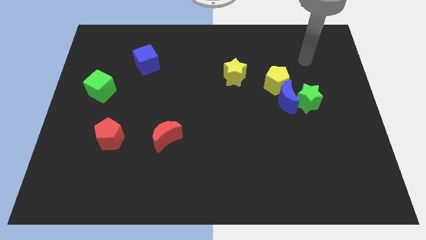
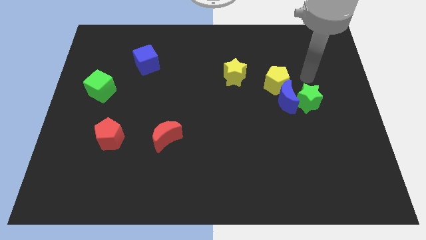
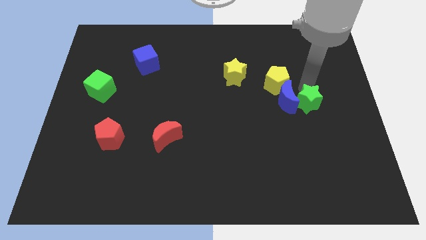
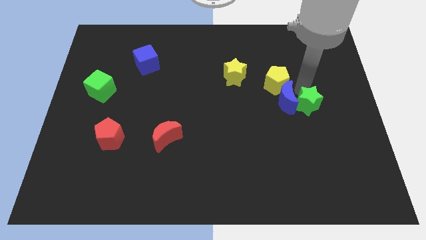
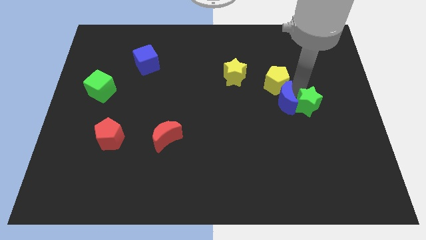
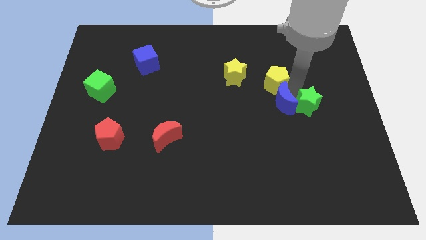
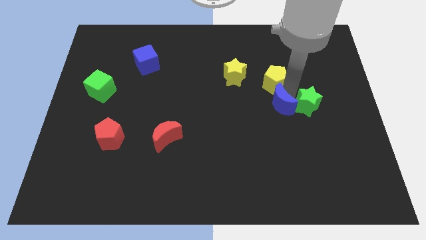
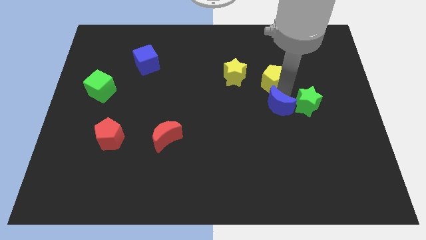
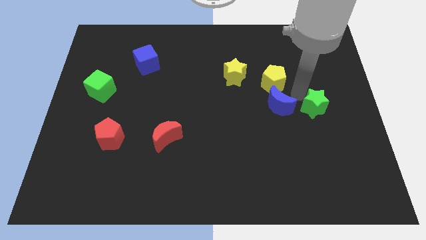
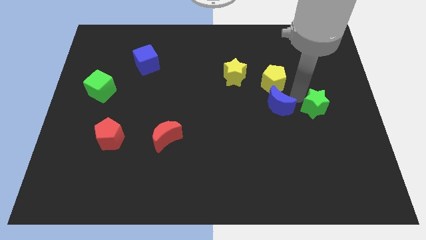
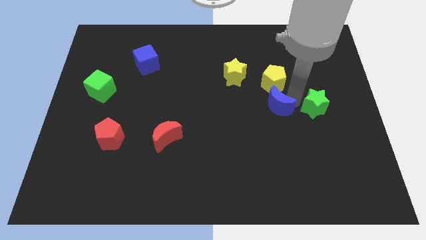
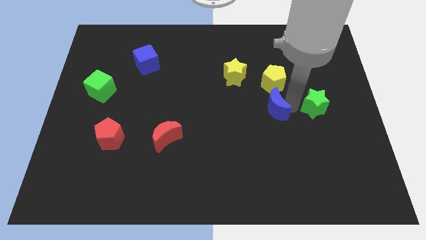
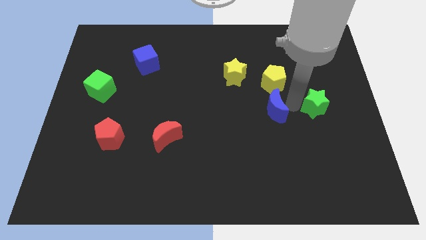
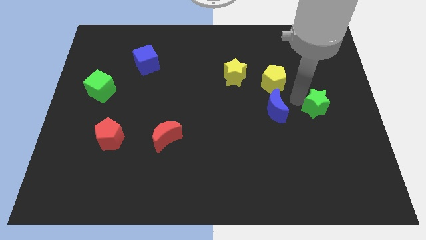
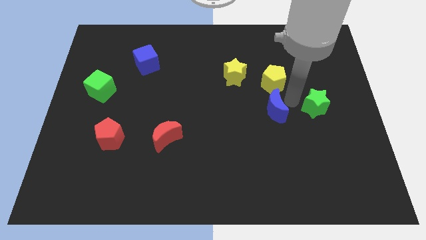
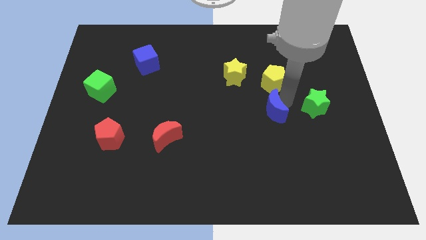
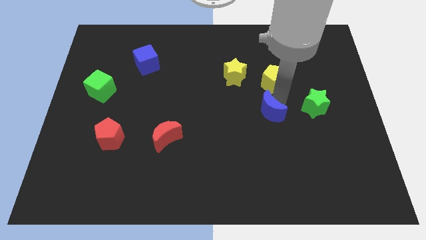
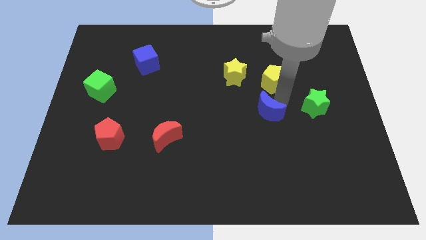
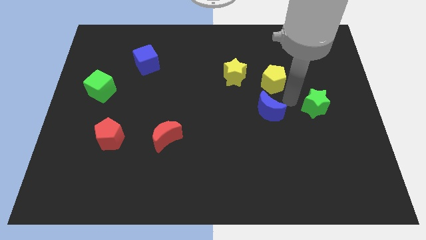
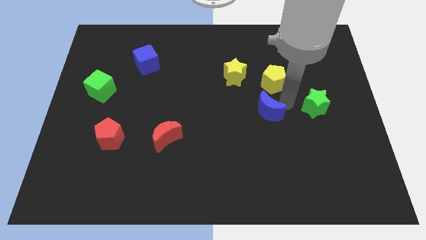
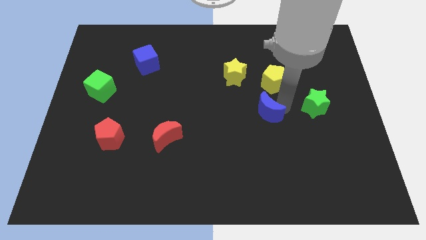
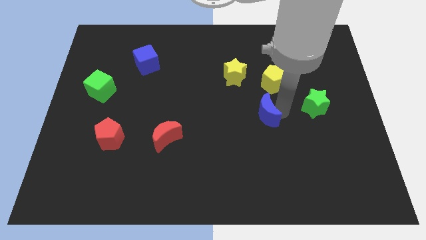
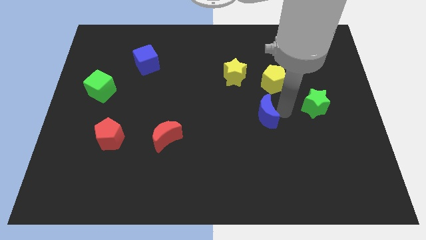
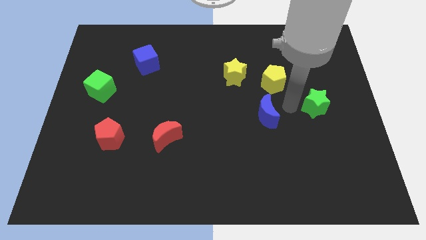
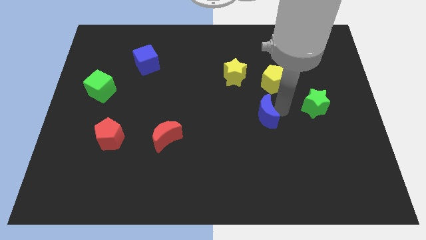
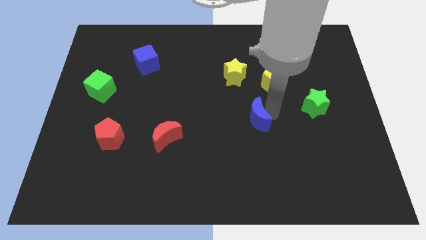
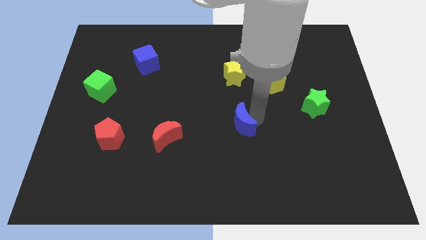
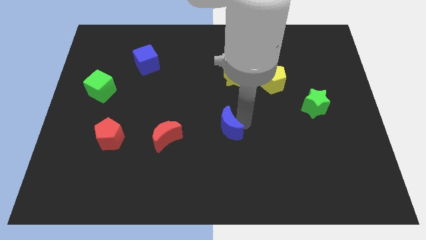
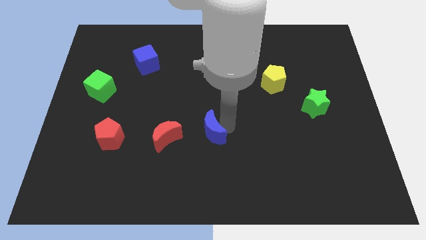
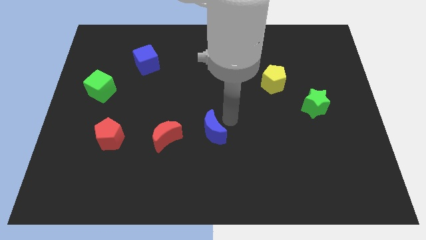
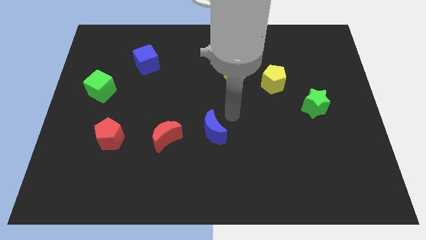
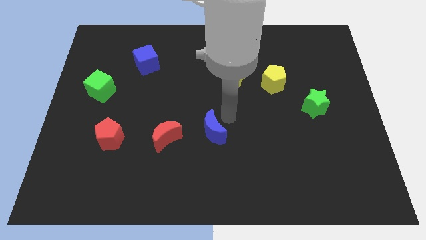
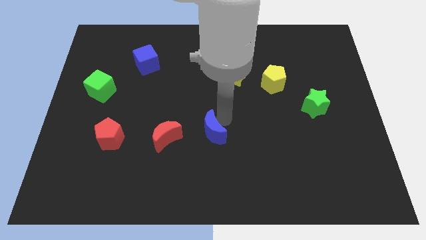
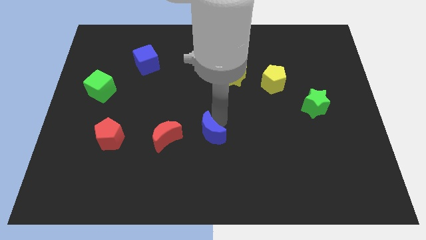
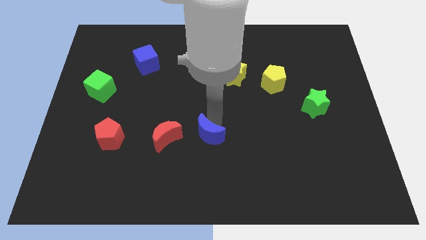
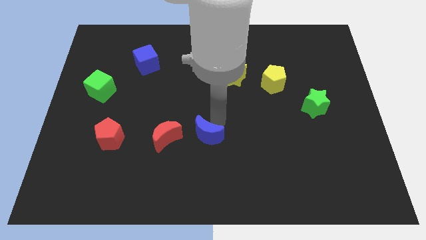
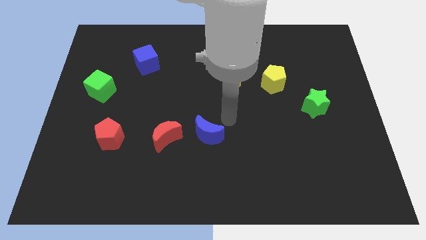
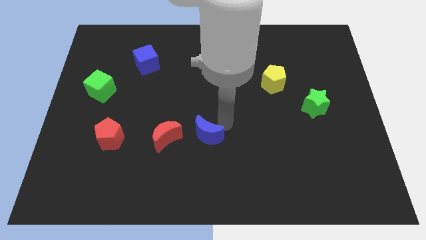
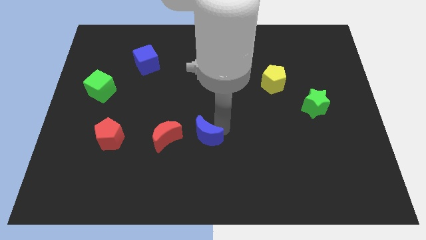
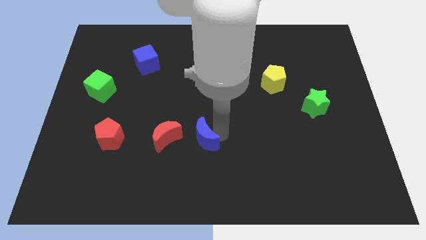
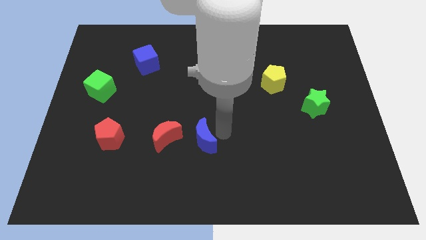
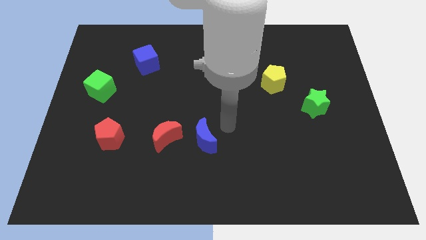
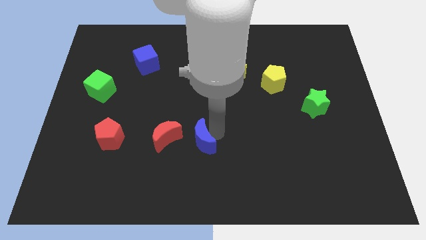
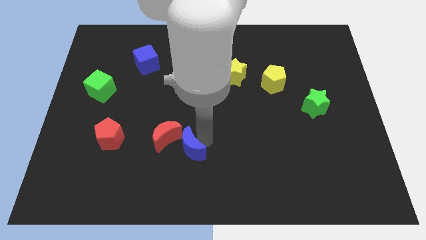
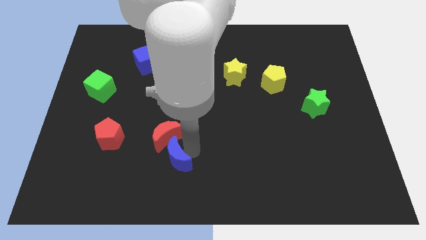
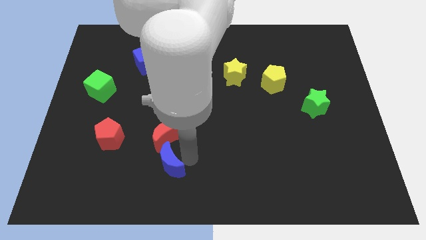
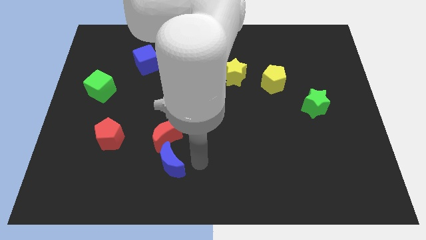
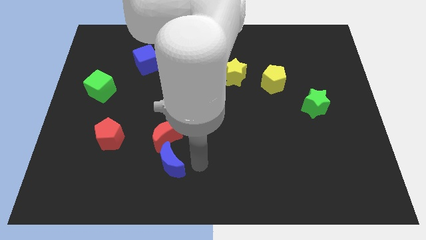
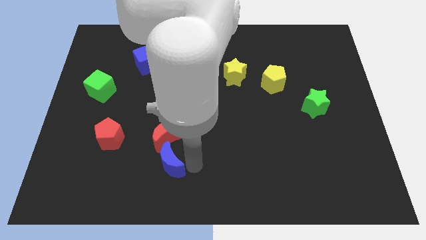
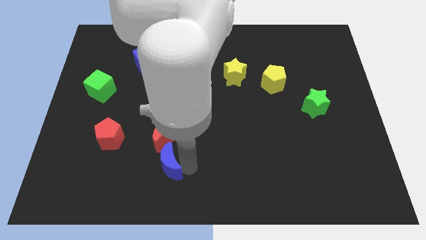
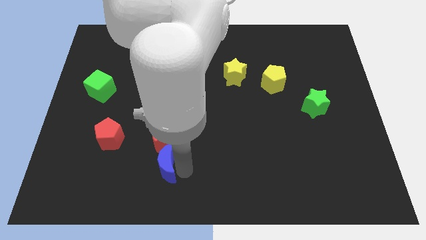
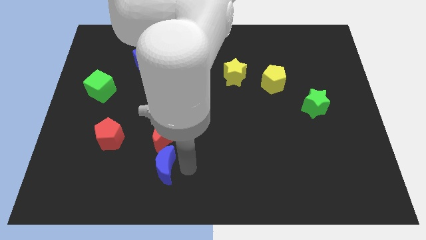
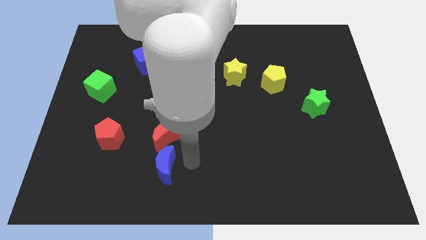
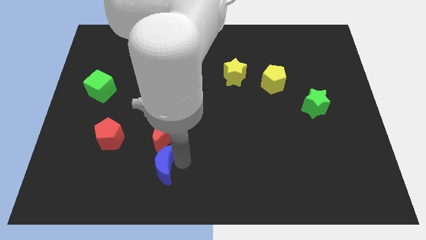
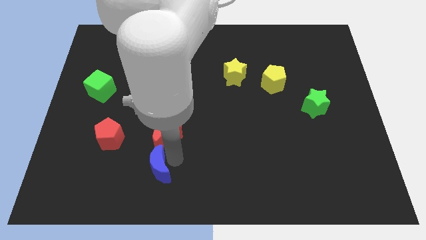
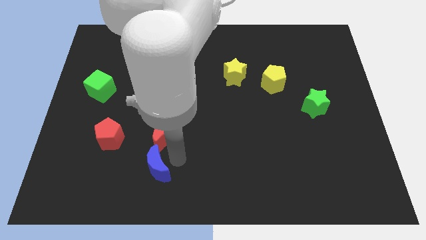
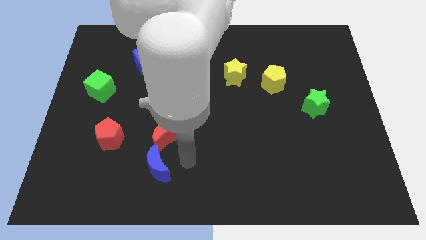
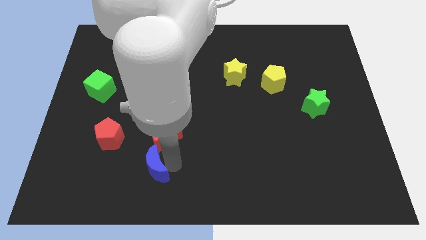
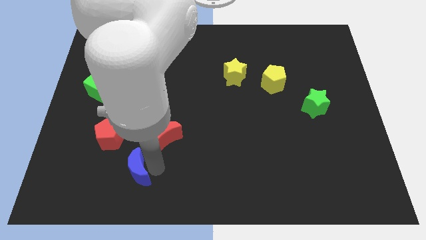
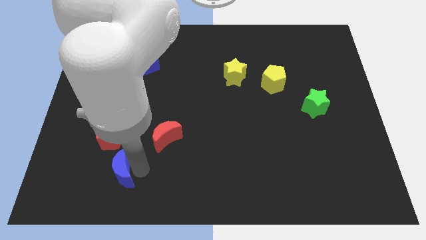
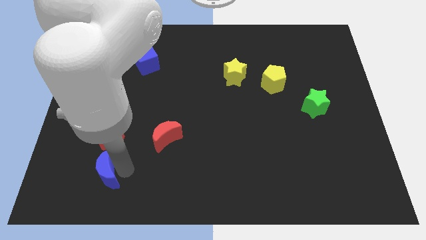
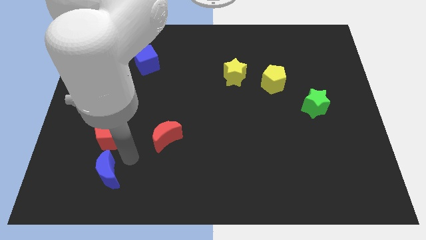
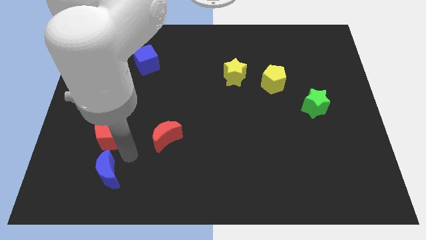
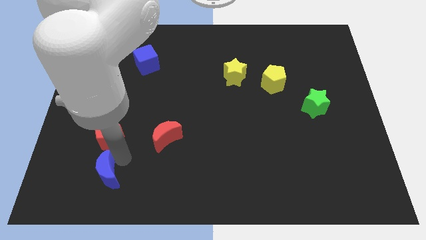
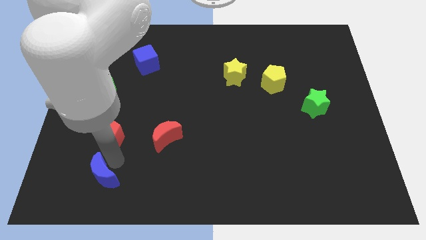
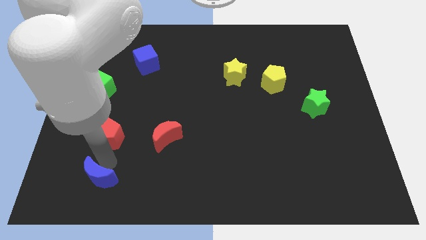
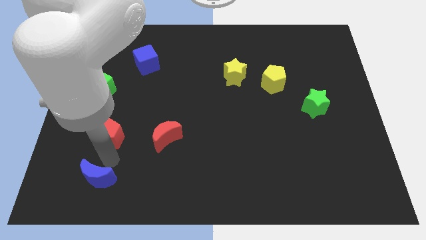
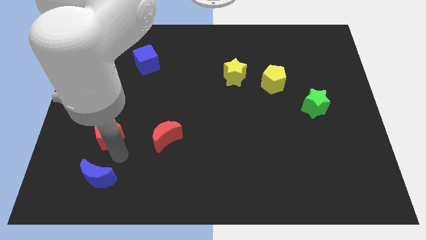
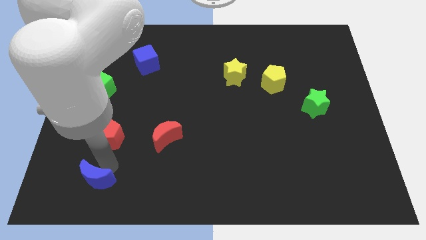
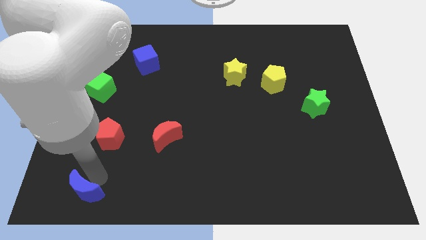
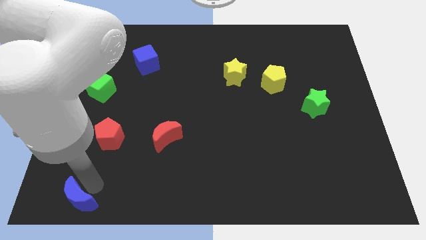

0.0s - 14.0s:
move the blue moon to the bottom left
